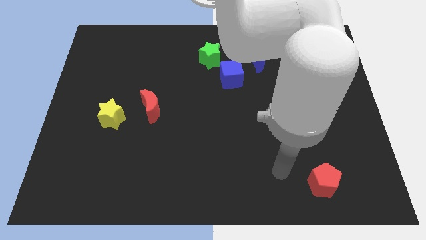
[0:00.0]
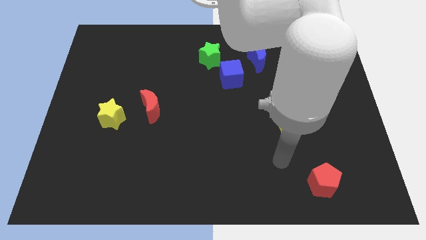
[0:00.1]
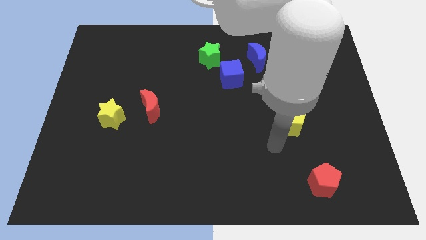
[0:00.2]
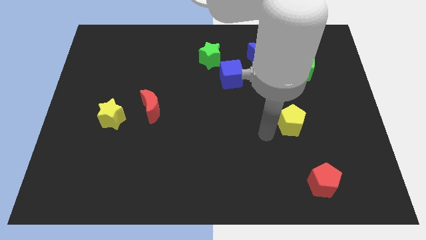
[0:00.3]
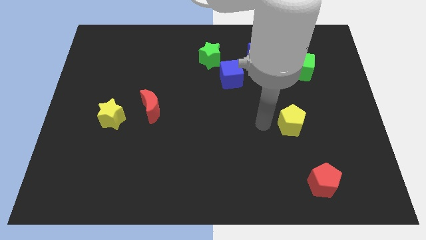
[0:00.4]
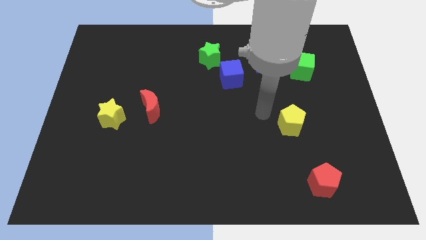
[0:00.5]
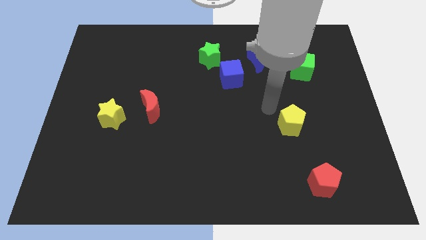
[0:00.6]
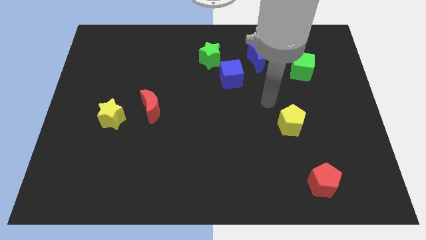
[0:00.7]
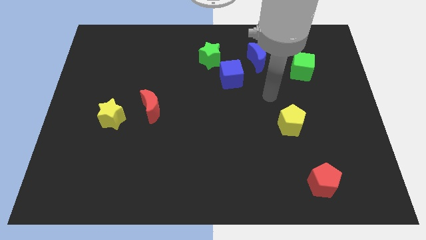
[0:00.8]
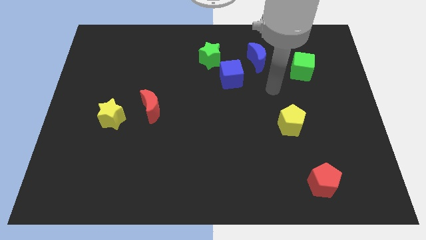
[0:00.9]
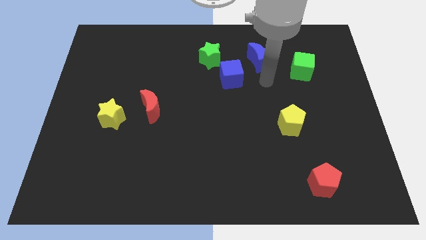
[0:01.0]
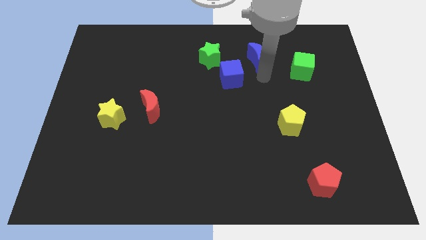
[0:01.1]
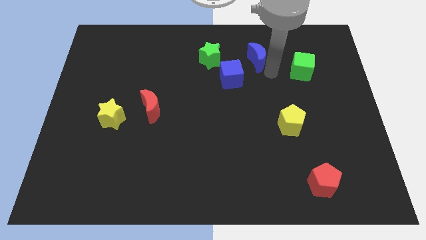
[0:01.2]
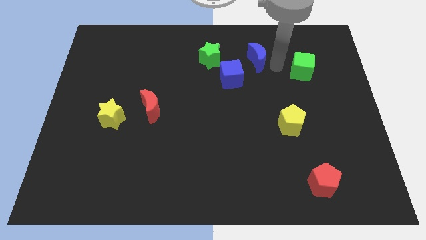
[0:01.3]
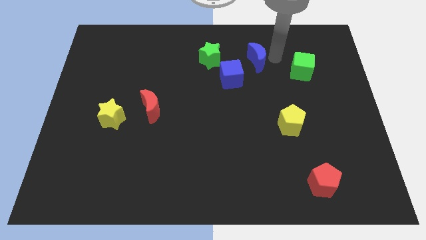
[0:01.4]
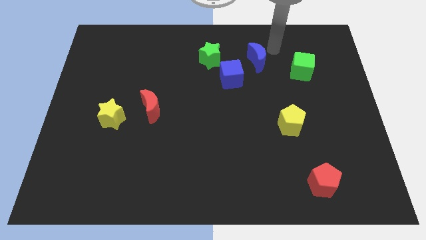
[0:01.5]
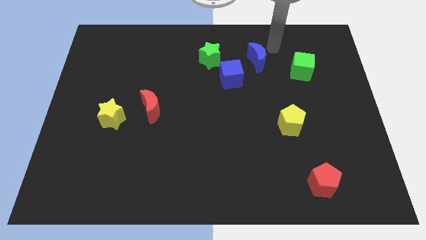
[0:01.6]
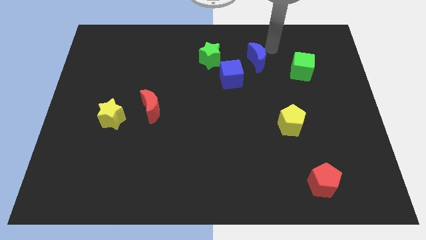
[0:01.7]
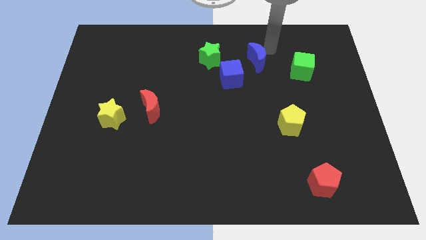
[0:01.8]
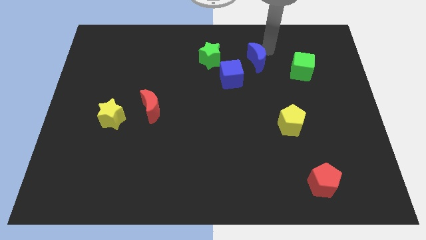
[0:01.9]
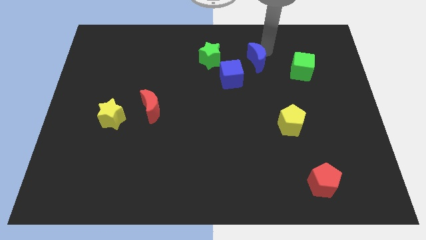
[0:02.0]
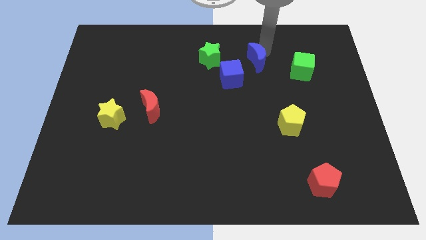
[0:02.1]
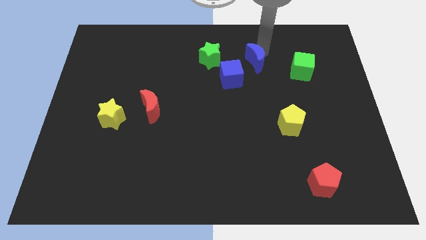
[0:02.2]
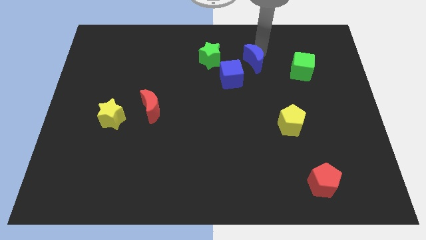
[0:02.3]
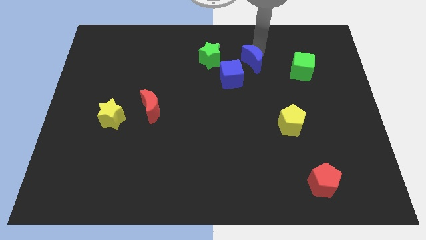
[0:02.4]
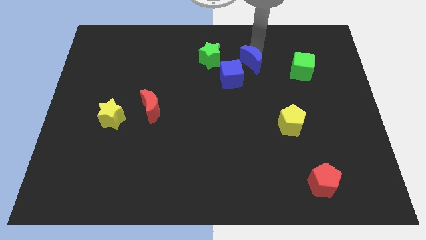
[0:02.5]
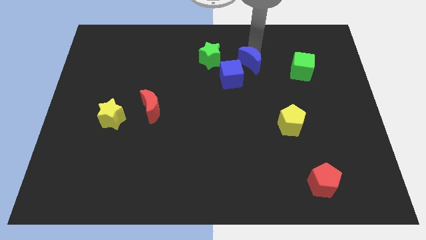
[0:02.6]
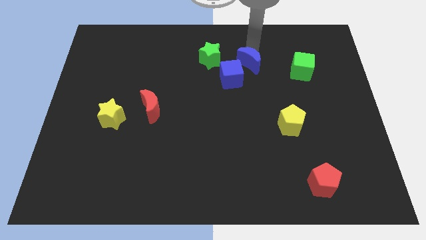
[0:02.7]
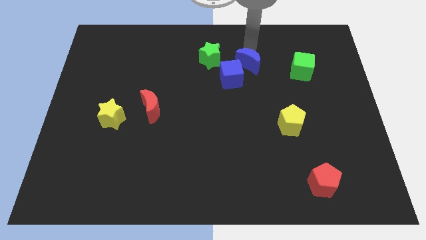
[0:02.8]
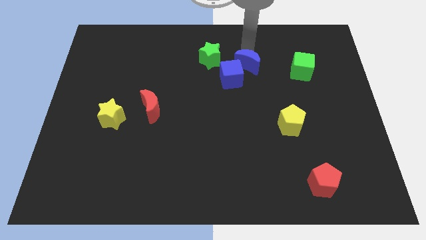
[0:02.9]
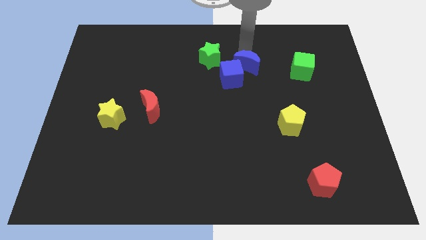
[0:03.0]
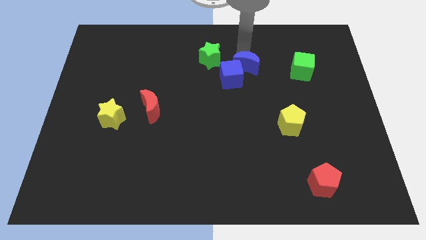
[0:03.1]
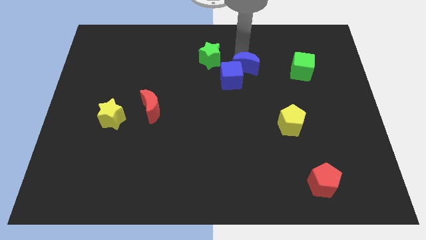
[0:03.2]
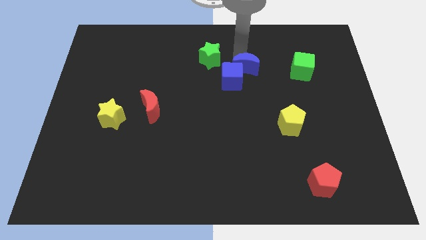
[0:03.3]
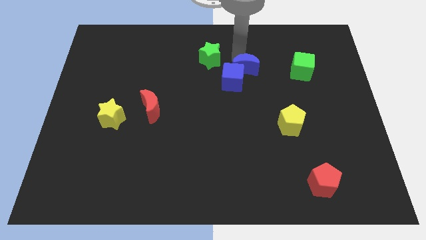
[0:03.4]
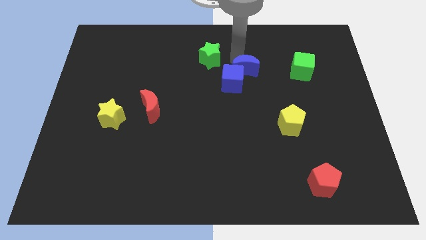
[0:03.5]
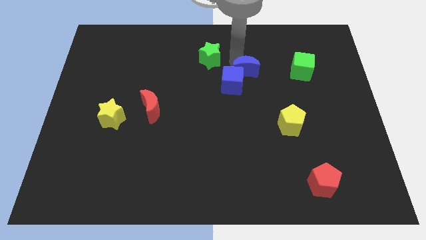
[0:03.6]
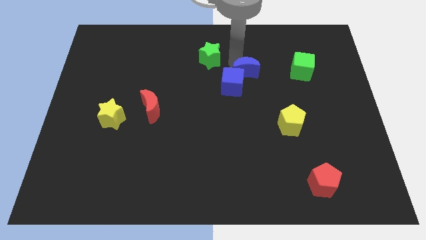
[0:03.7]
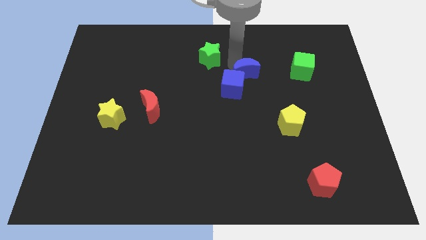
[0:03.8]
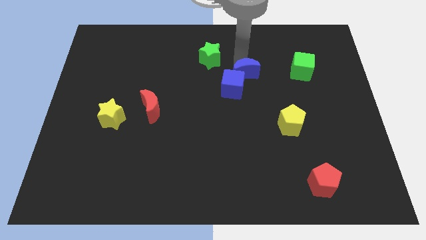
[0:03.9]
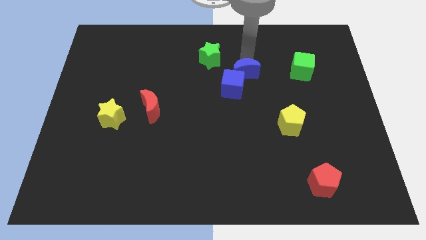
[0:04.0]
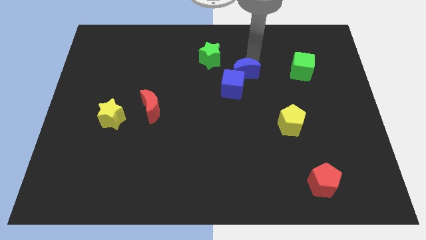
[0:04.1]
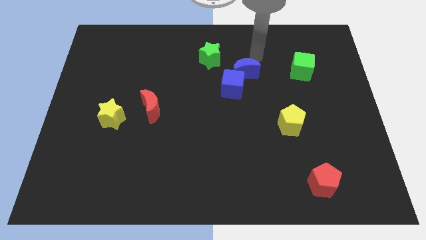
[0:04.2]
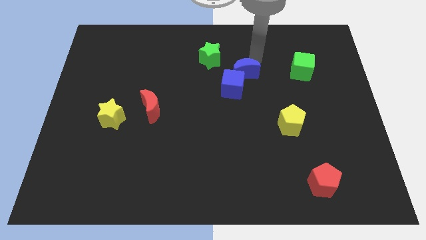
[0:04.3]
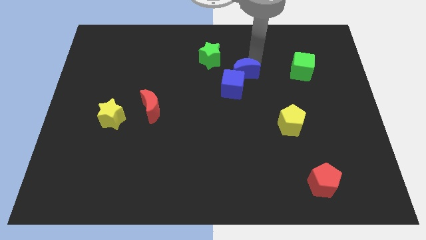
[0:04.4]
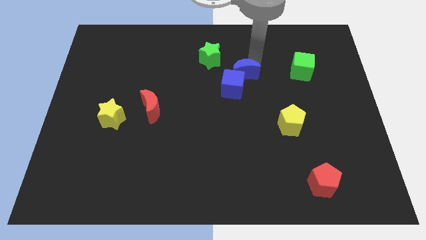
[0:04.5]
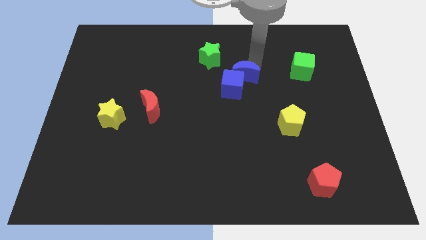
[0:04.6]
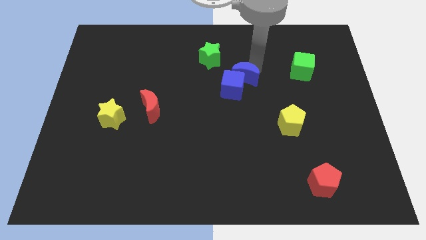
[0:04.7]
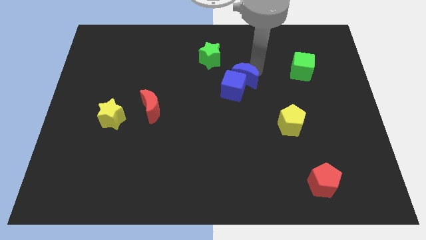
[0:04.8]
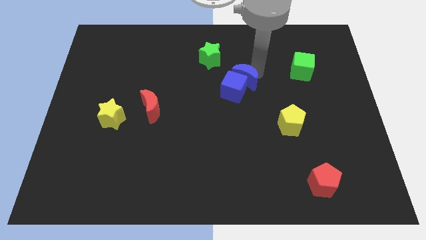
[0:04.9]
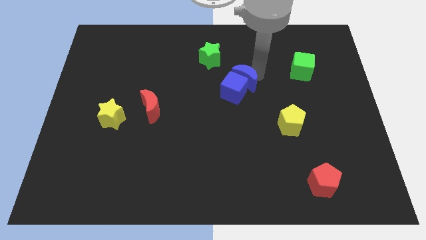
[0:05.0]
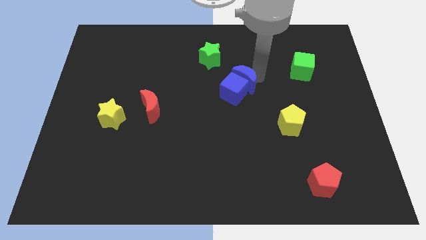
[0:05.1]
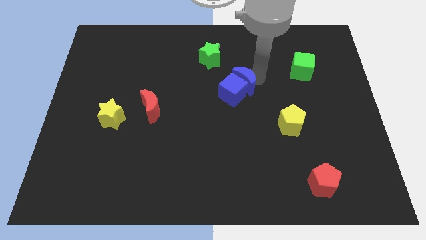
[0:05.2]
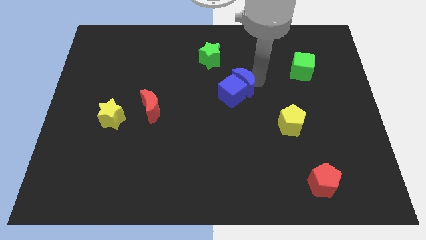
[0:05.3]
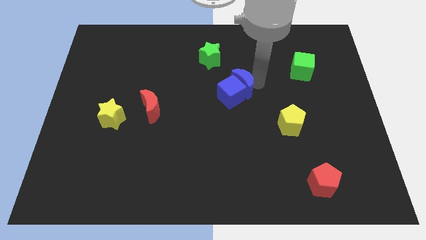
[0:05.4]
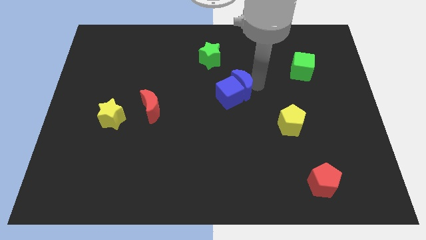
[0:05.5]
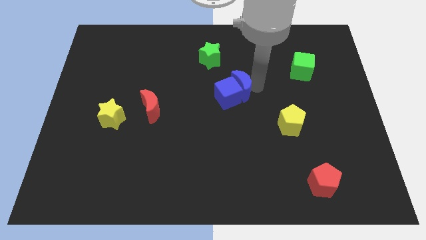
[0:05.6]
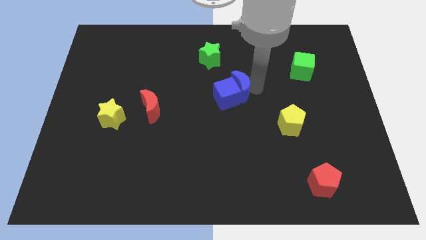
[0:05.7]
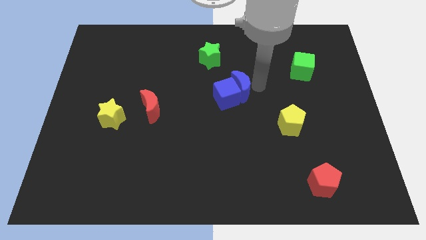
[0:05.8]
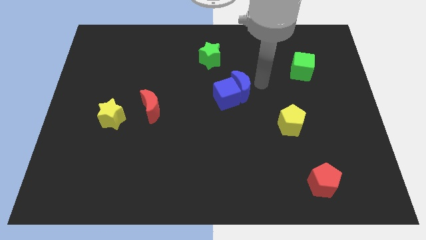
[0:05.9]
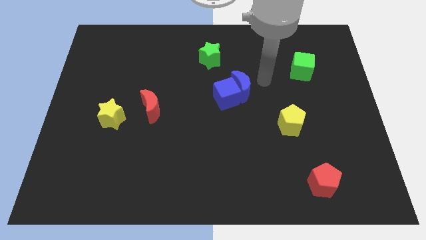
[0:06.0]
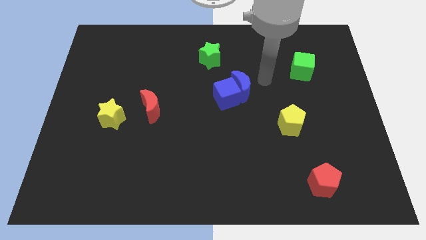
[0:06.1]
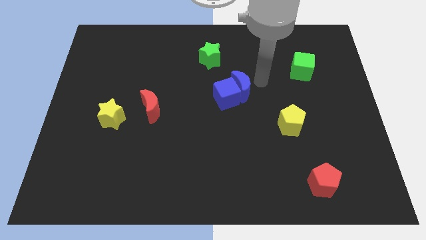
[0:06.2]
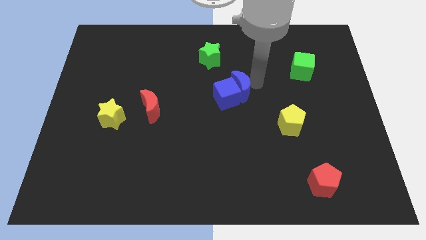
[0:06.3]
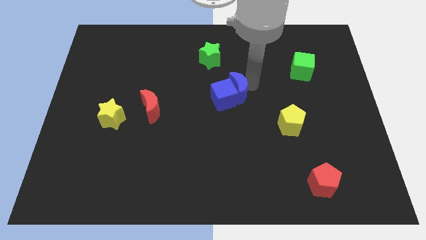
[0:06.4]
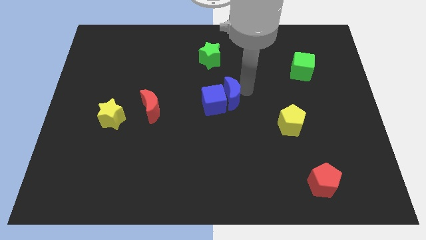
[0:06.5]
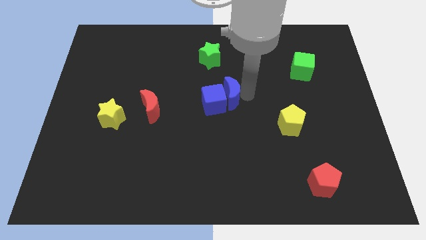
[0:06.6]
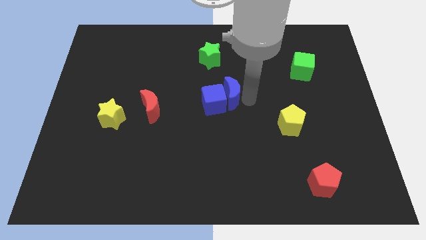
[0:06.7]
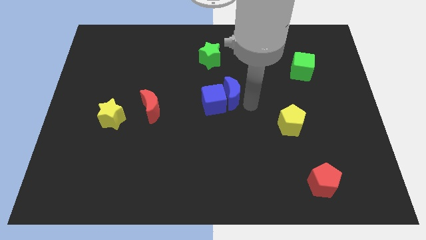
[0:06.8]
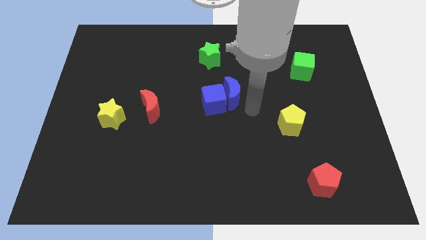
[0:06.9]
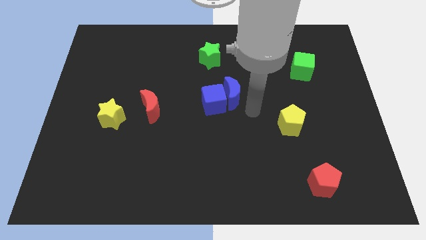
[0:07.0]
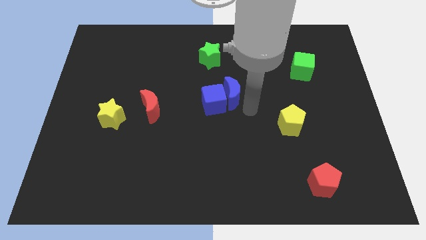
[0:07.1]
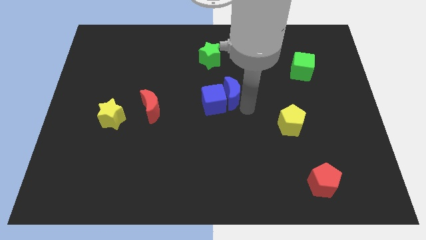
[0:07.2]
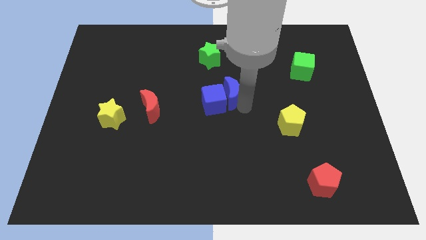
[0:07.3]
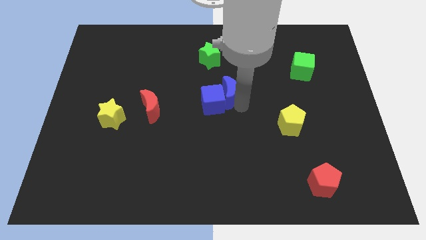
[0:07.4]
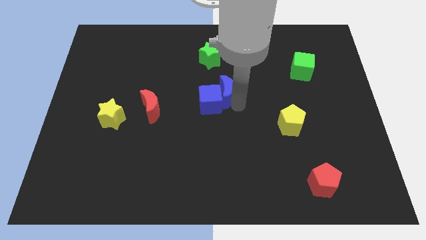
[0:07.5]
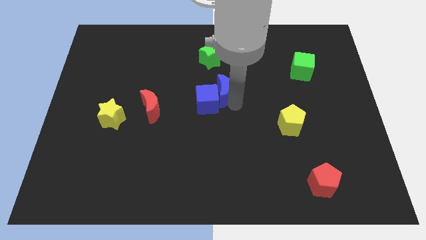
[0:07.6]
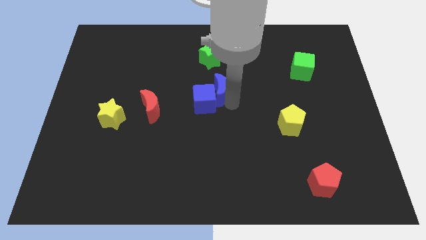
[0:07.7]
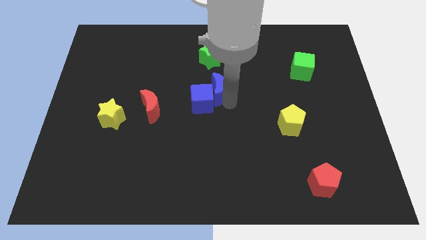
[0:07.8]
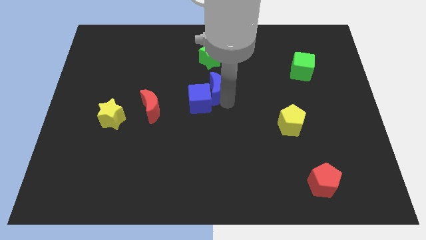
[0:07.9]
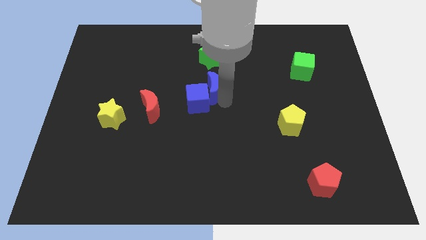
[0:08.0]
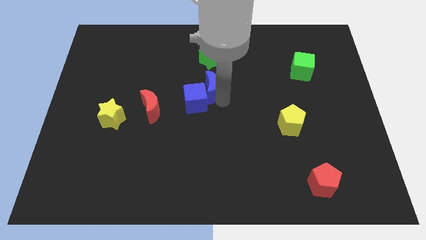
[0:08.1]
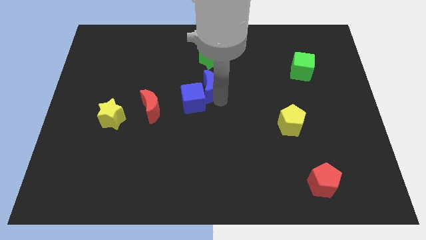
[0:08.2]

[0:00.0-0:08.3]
slightly slide the blue moon left
